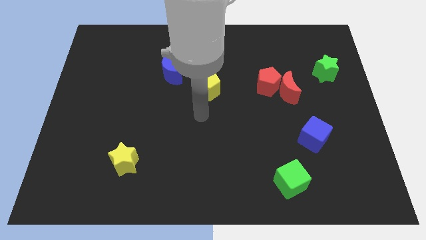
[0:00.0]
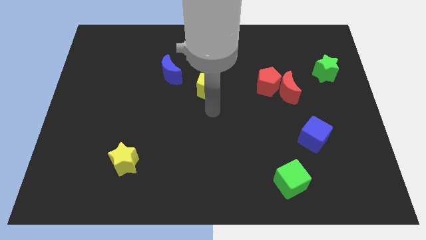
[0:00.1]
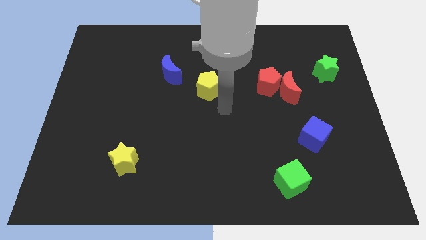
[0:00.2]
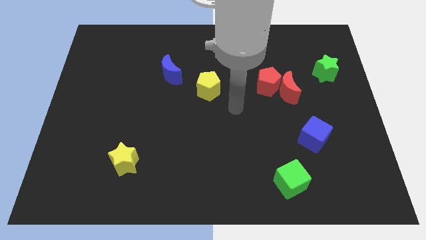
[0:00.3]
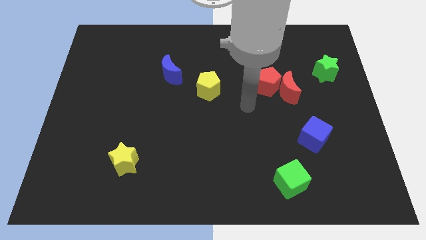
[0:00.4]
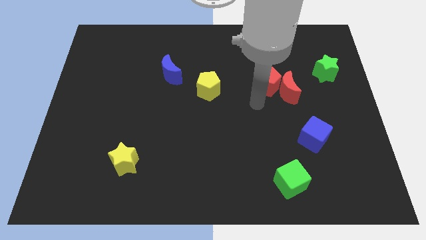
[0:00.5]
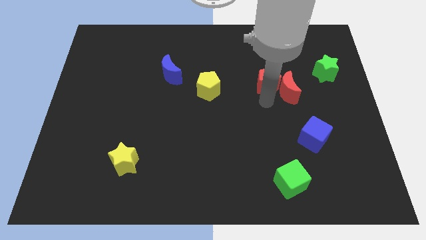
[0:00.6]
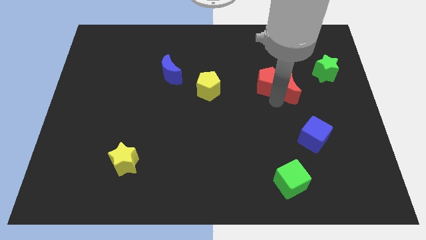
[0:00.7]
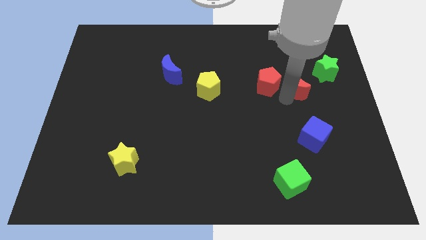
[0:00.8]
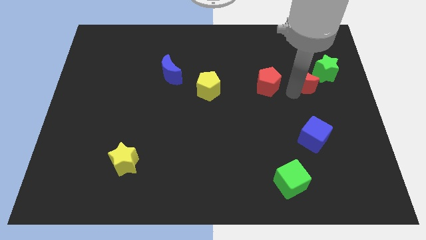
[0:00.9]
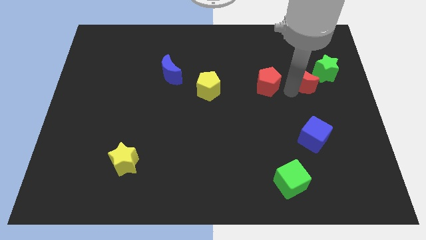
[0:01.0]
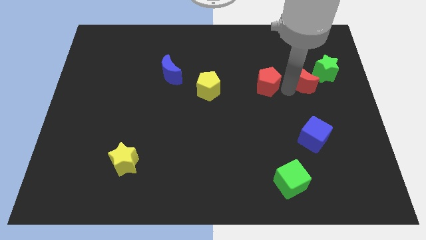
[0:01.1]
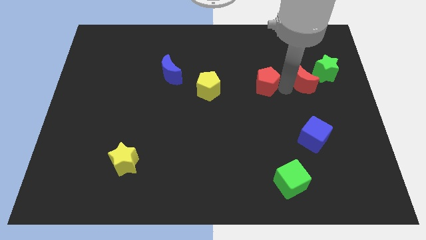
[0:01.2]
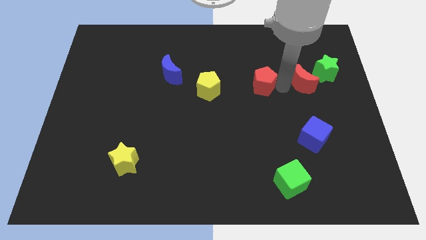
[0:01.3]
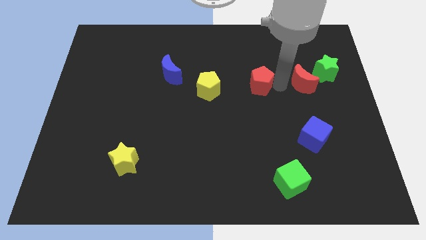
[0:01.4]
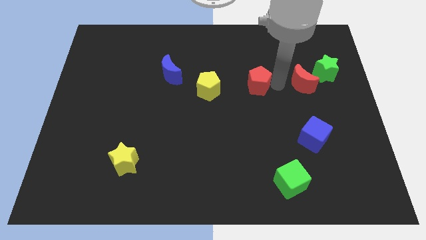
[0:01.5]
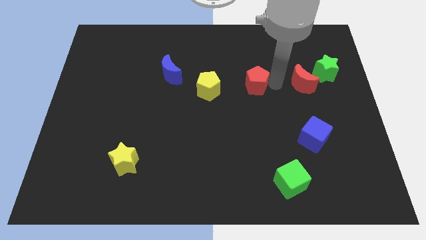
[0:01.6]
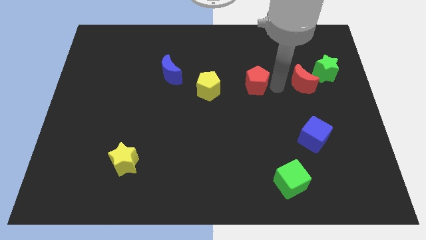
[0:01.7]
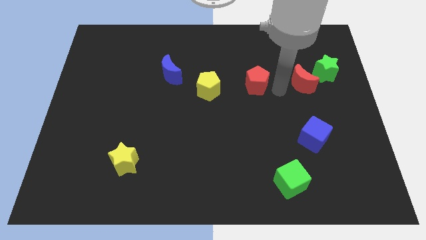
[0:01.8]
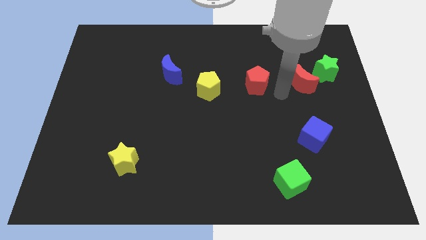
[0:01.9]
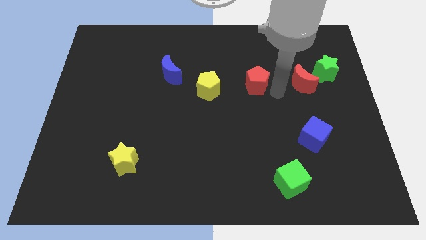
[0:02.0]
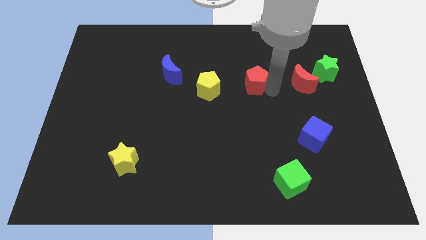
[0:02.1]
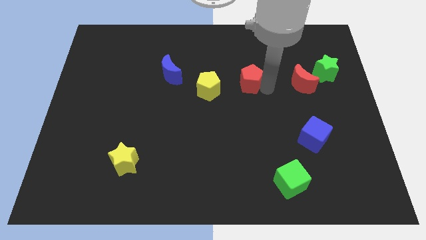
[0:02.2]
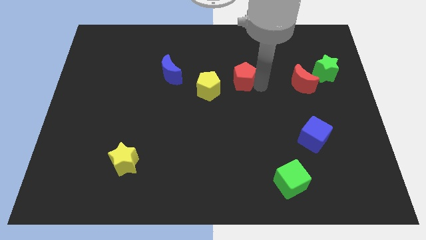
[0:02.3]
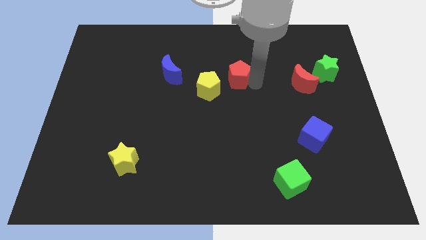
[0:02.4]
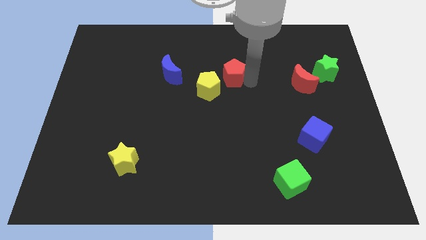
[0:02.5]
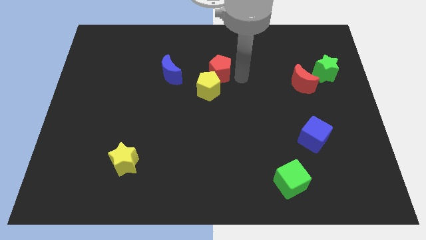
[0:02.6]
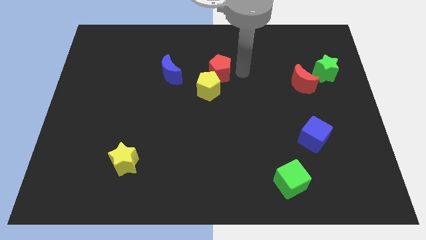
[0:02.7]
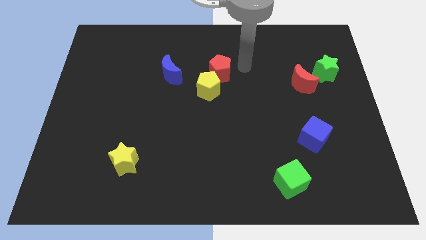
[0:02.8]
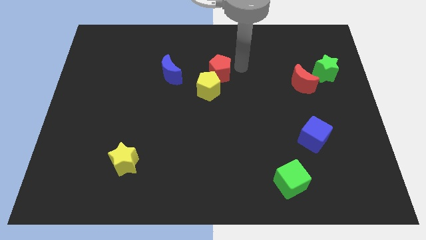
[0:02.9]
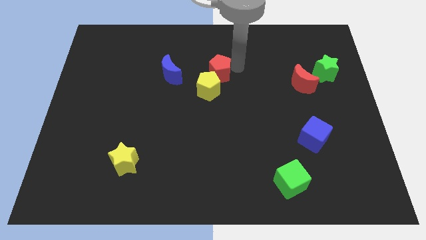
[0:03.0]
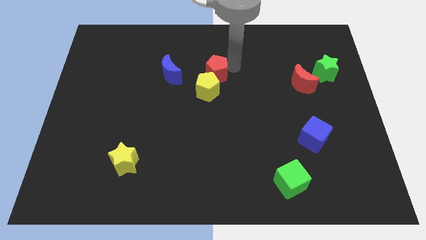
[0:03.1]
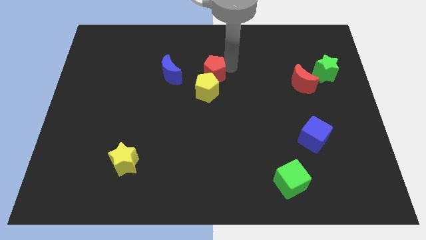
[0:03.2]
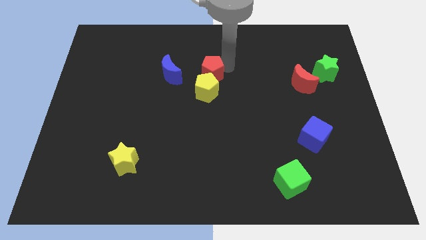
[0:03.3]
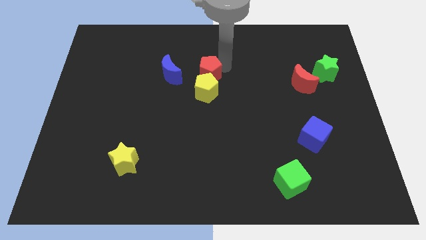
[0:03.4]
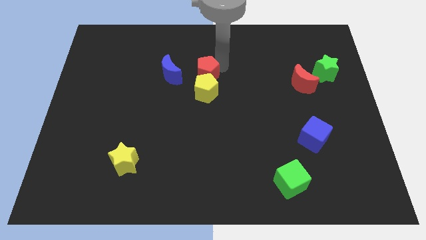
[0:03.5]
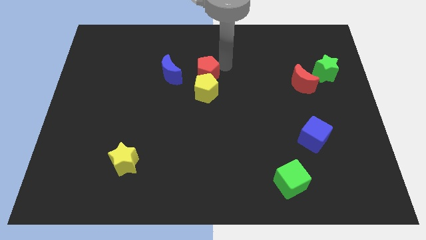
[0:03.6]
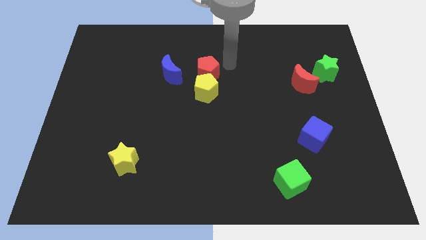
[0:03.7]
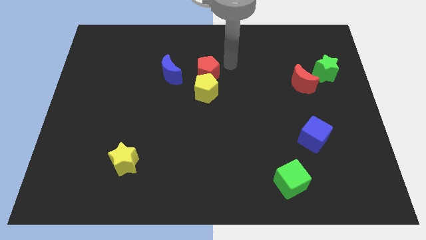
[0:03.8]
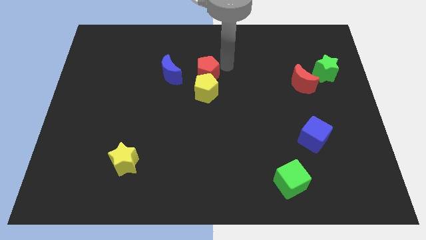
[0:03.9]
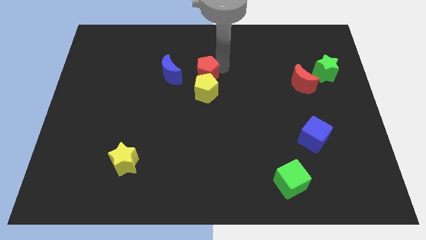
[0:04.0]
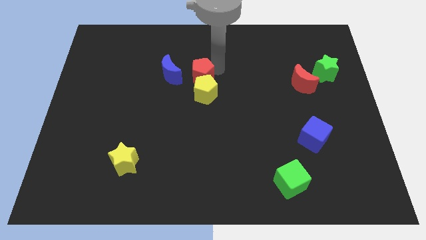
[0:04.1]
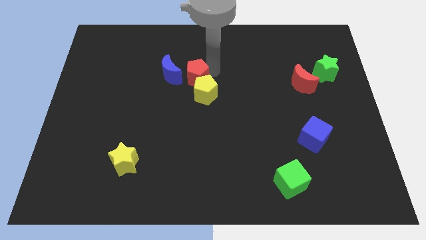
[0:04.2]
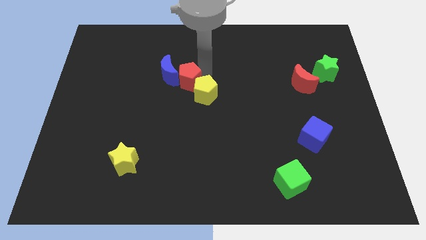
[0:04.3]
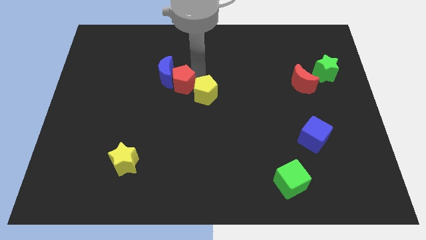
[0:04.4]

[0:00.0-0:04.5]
push the red pentagon left

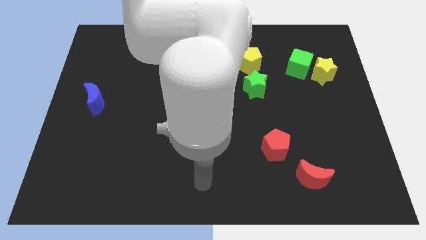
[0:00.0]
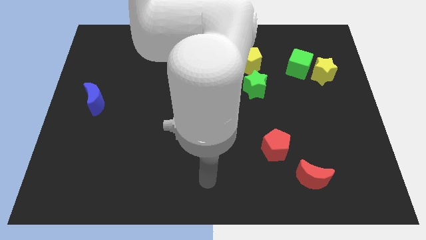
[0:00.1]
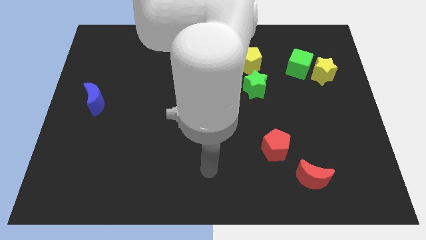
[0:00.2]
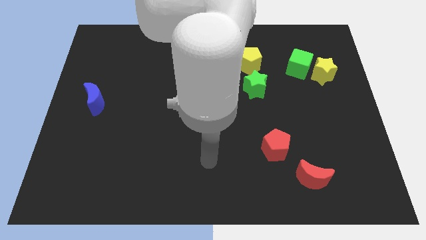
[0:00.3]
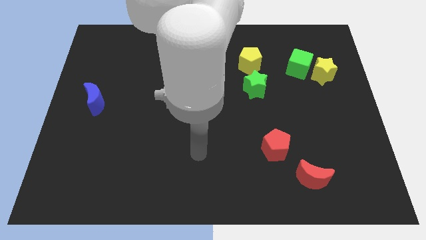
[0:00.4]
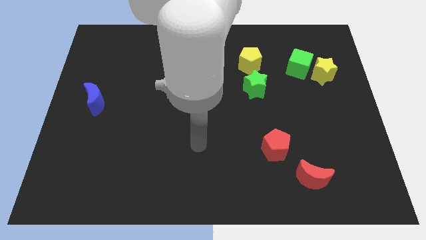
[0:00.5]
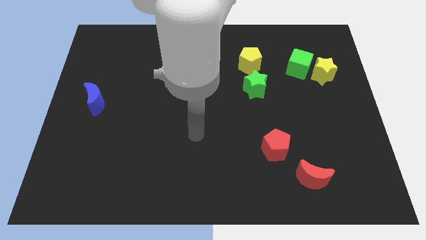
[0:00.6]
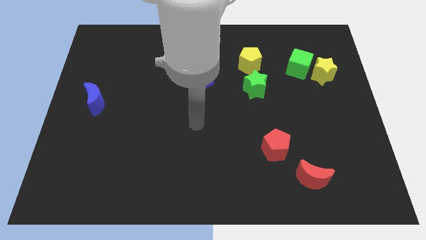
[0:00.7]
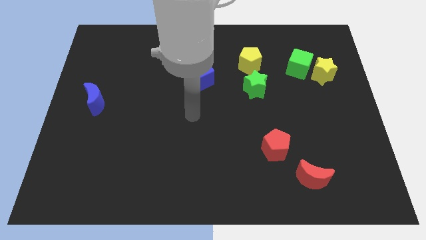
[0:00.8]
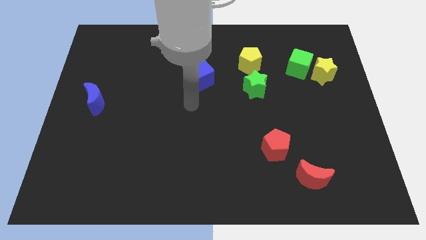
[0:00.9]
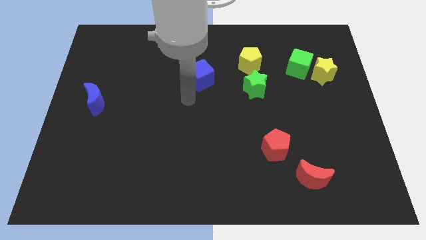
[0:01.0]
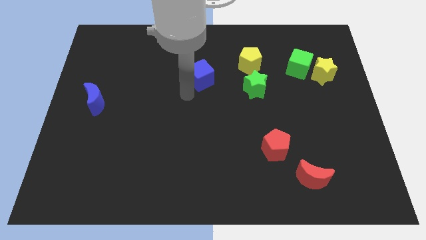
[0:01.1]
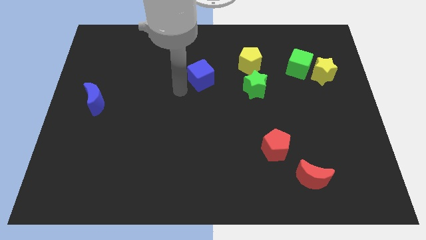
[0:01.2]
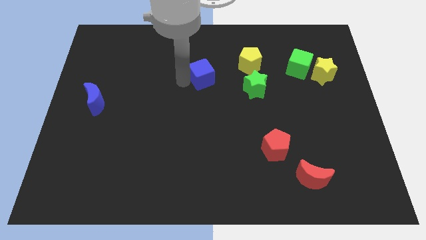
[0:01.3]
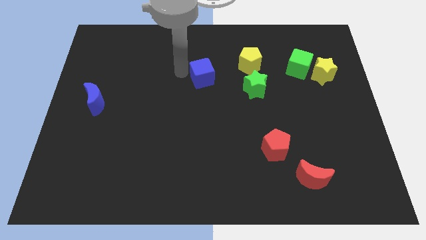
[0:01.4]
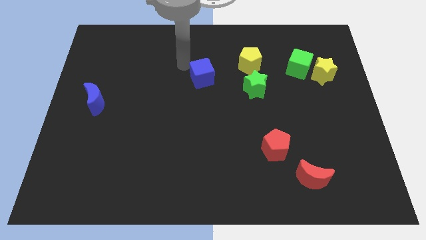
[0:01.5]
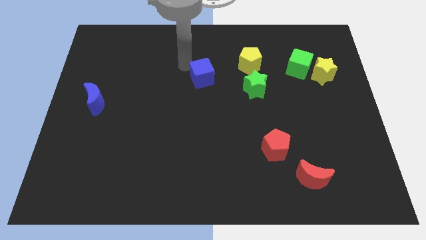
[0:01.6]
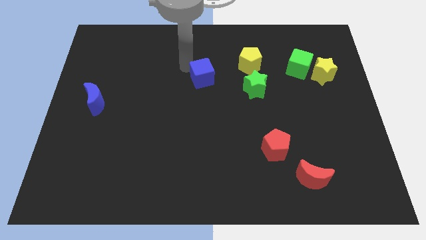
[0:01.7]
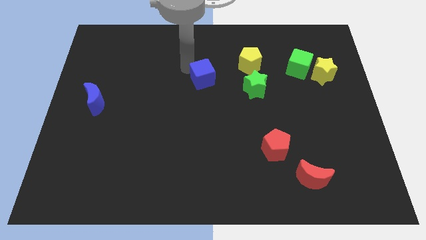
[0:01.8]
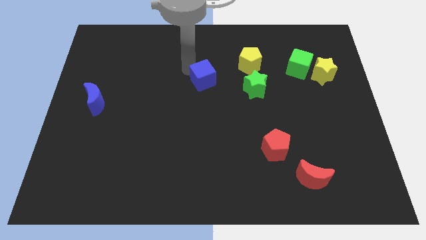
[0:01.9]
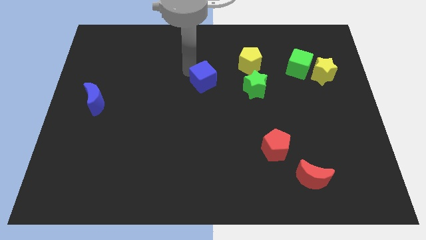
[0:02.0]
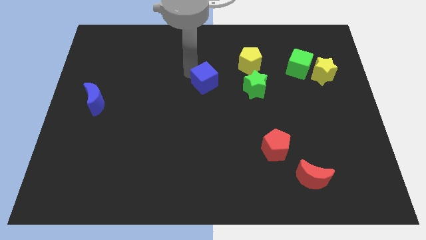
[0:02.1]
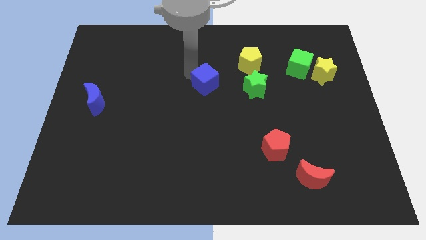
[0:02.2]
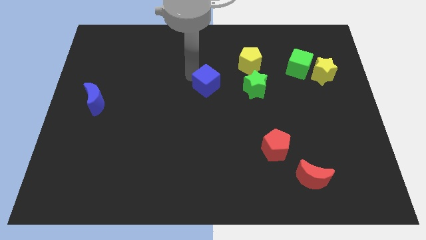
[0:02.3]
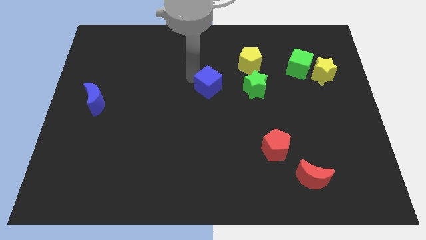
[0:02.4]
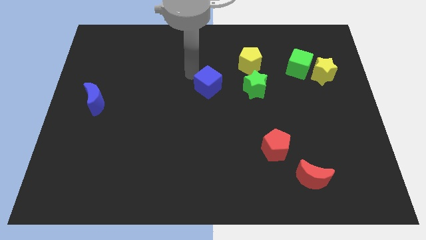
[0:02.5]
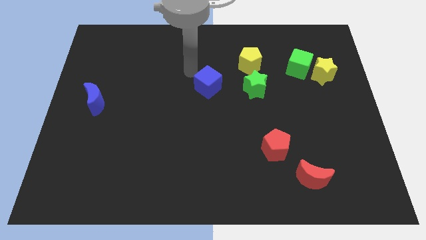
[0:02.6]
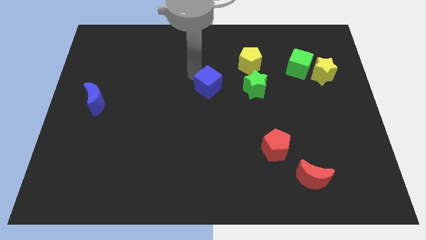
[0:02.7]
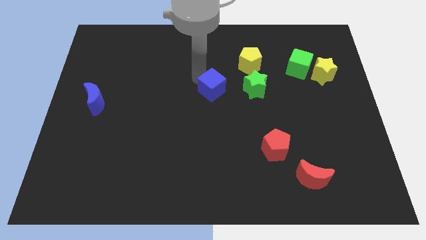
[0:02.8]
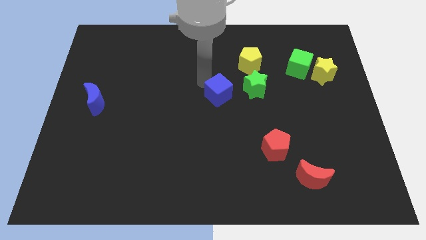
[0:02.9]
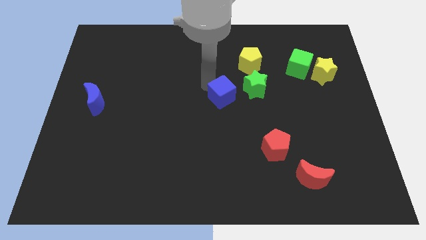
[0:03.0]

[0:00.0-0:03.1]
push the blue cube a little bit downwards and right
